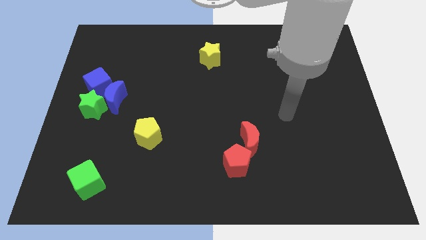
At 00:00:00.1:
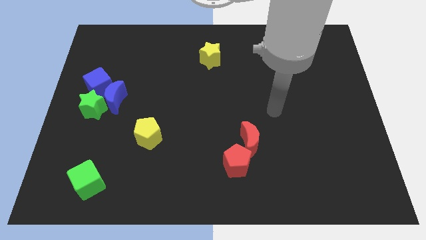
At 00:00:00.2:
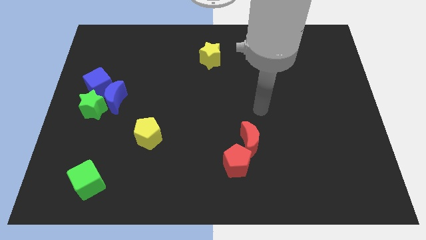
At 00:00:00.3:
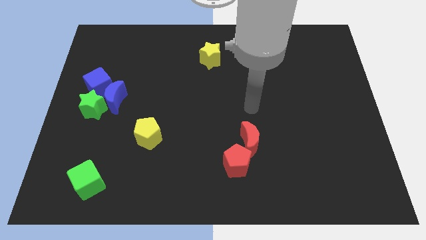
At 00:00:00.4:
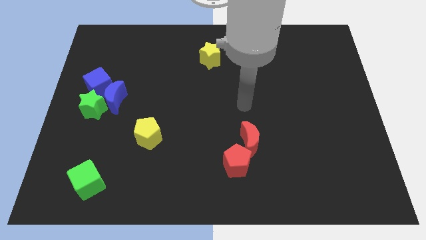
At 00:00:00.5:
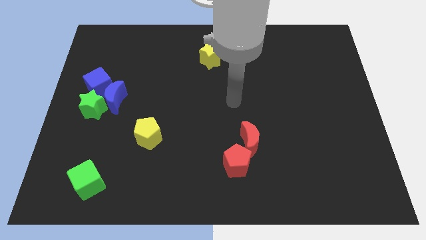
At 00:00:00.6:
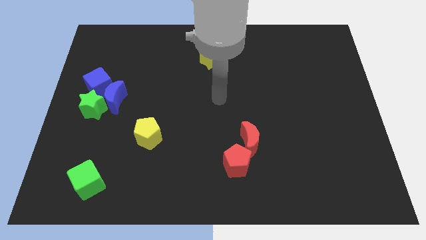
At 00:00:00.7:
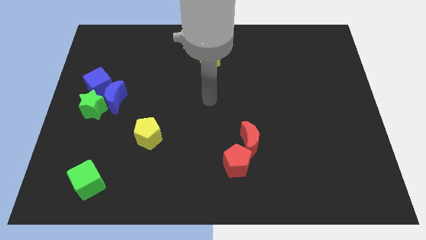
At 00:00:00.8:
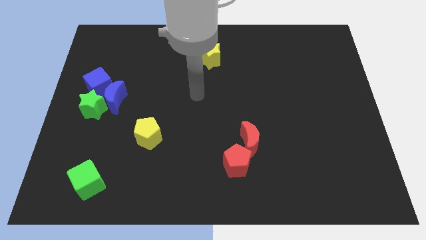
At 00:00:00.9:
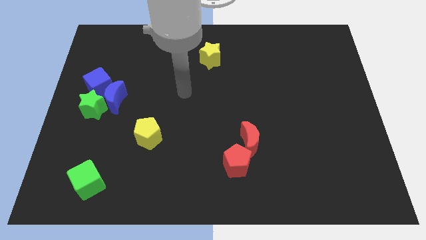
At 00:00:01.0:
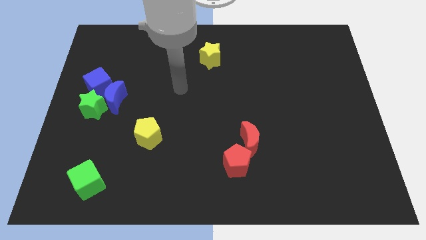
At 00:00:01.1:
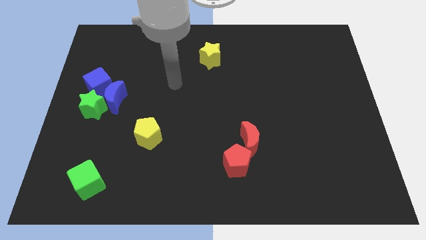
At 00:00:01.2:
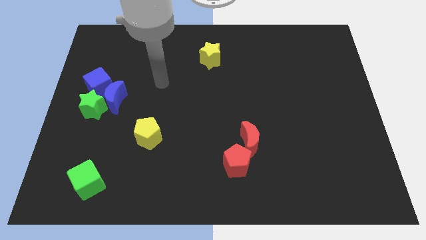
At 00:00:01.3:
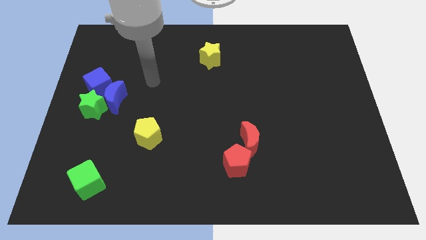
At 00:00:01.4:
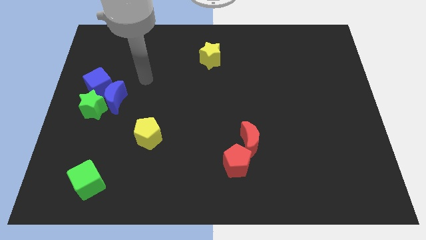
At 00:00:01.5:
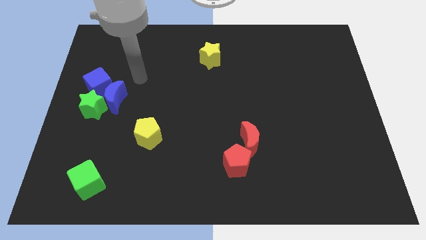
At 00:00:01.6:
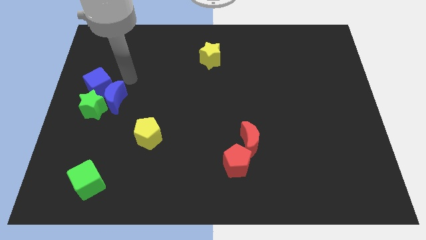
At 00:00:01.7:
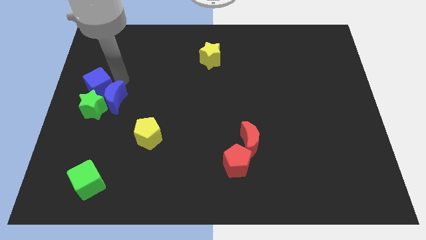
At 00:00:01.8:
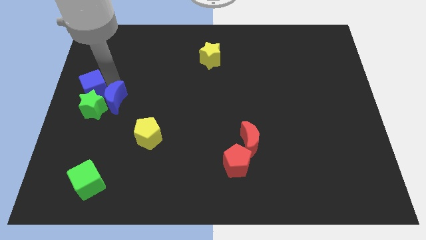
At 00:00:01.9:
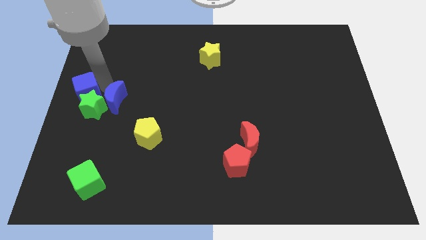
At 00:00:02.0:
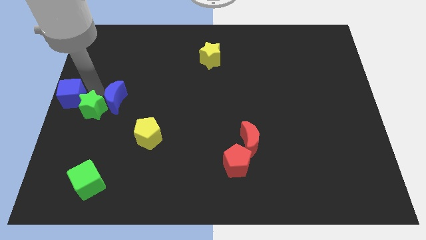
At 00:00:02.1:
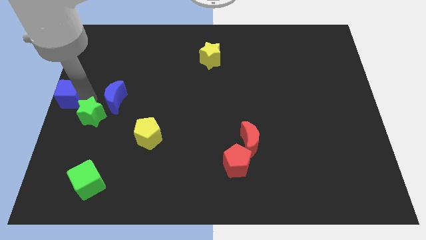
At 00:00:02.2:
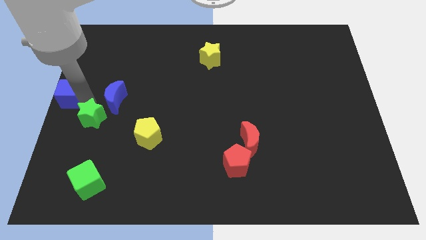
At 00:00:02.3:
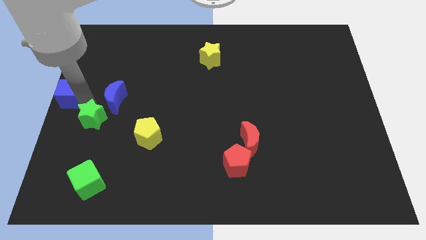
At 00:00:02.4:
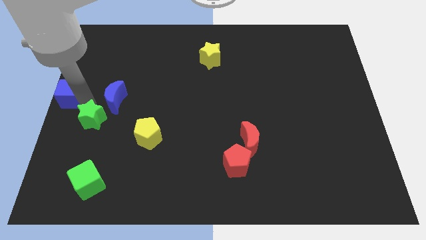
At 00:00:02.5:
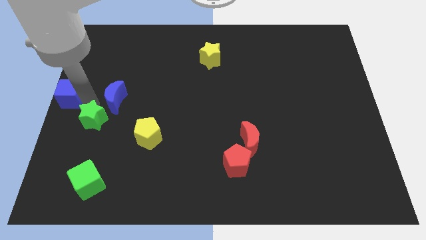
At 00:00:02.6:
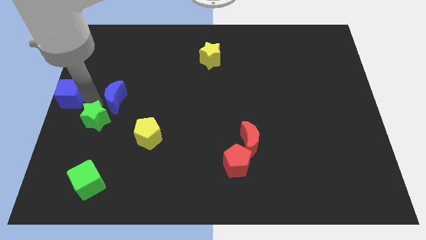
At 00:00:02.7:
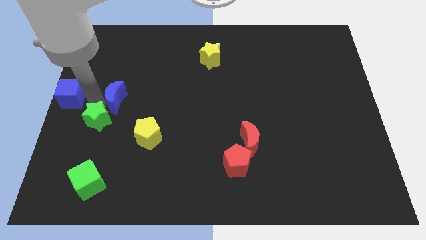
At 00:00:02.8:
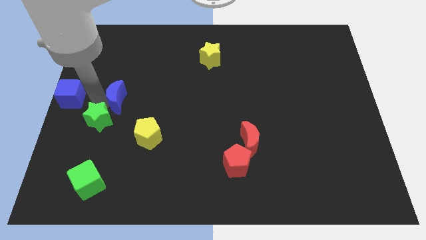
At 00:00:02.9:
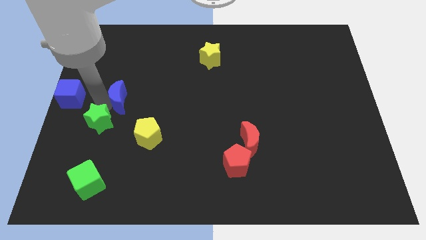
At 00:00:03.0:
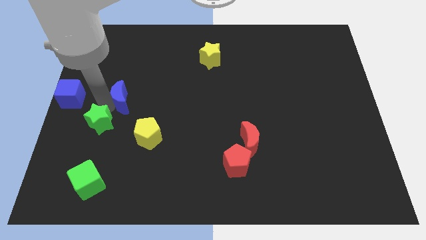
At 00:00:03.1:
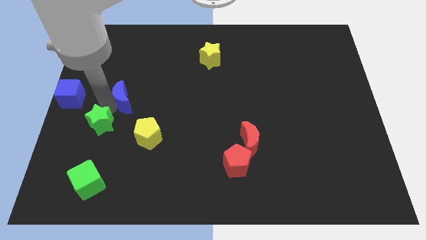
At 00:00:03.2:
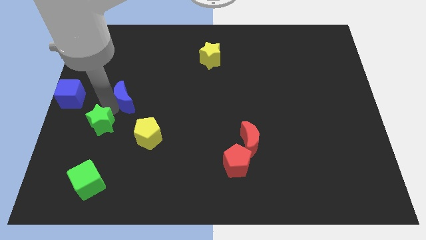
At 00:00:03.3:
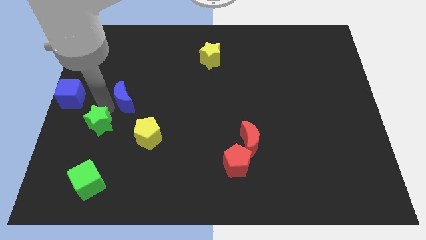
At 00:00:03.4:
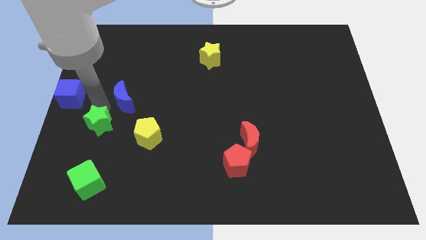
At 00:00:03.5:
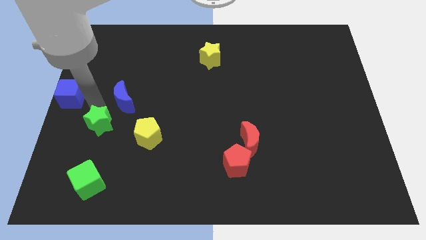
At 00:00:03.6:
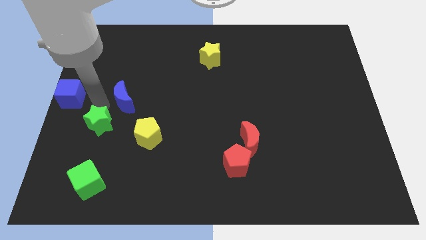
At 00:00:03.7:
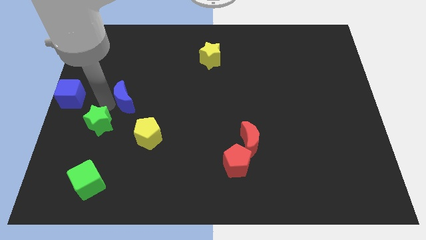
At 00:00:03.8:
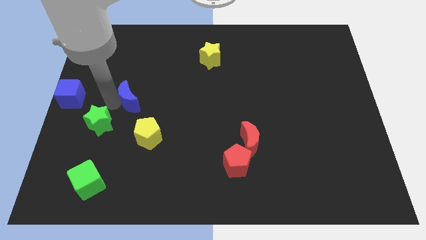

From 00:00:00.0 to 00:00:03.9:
move the blue moon away from the green star and blue cube

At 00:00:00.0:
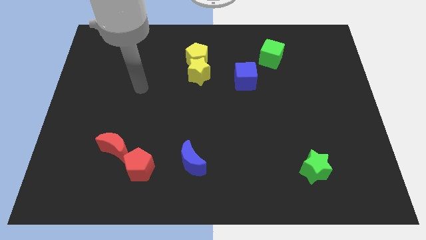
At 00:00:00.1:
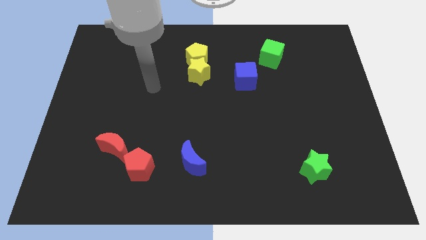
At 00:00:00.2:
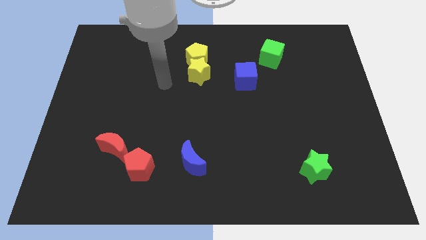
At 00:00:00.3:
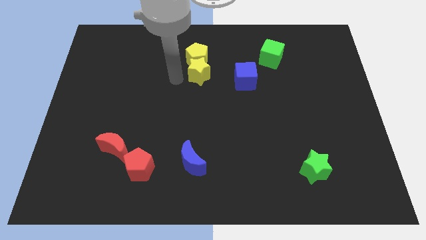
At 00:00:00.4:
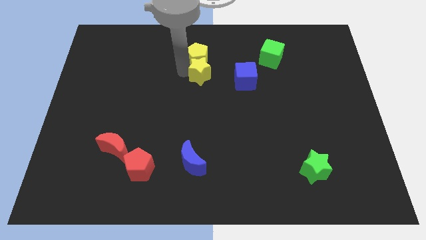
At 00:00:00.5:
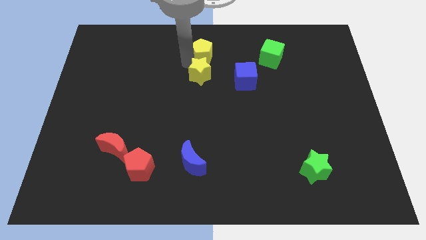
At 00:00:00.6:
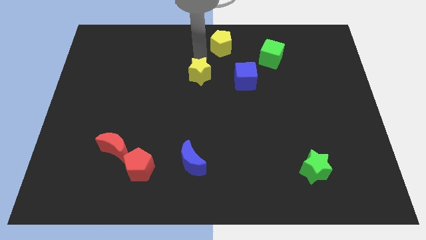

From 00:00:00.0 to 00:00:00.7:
separate the yellow star from the yellow pentagon

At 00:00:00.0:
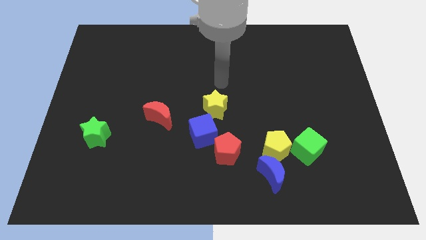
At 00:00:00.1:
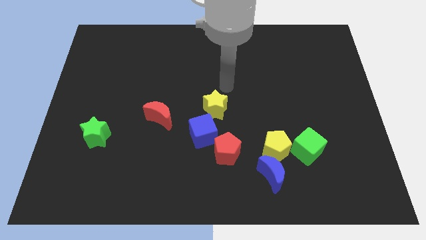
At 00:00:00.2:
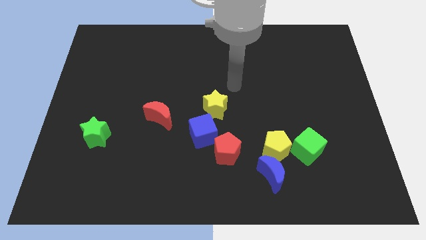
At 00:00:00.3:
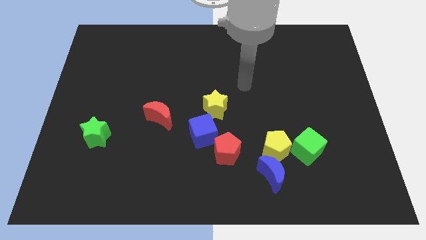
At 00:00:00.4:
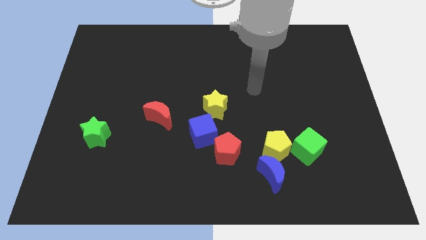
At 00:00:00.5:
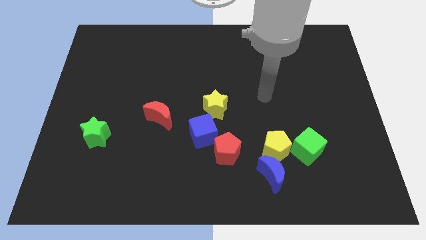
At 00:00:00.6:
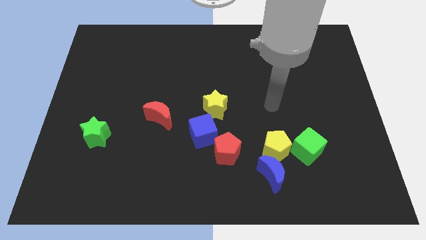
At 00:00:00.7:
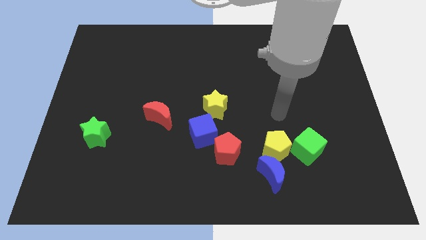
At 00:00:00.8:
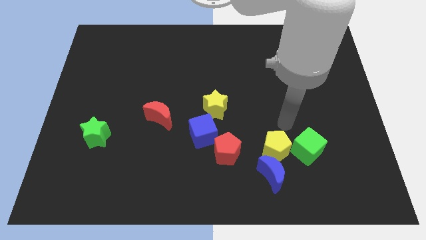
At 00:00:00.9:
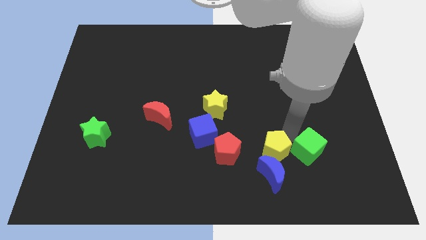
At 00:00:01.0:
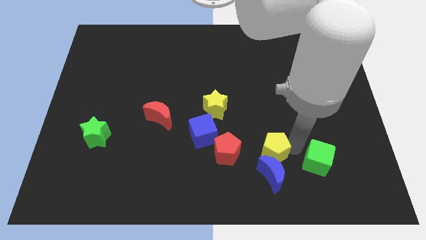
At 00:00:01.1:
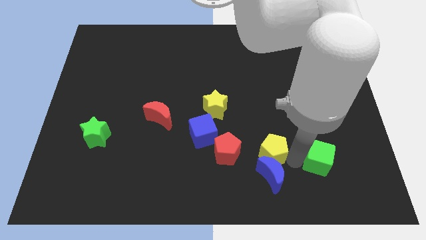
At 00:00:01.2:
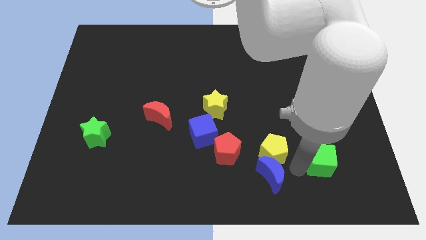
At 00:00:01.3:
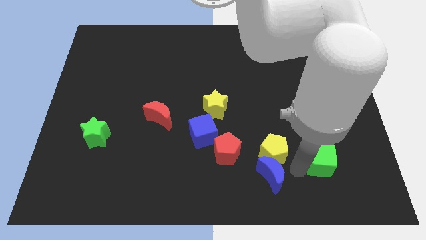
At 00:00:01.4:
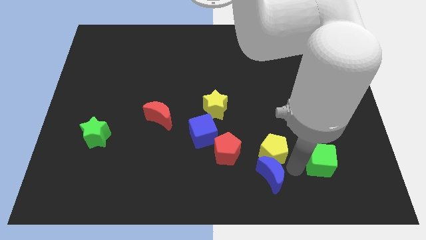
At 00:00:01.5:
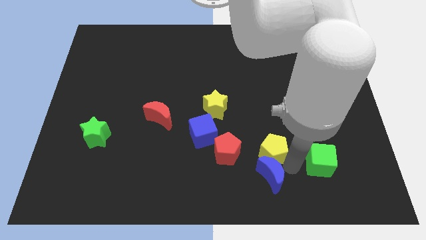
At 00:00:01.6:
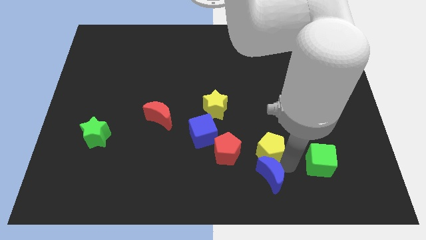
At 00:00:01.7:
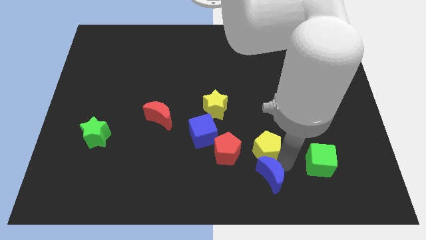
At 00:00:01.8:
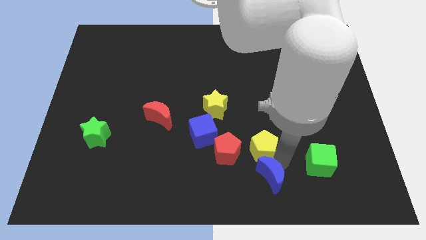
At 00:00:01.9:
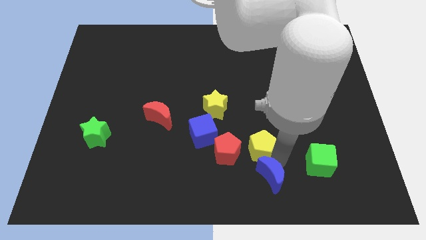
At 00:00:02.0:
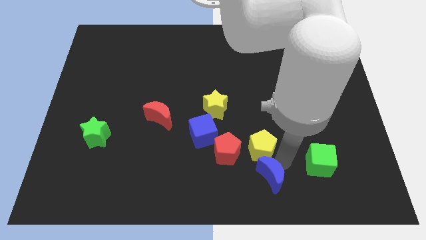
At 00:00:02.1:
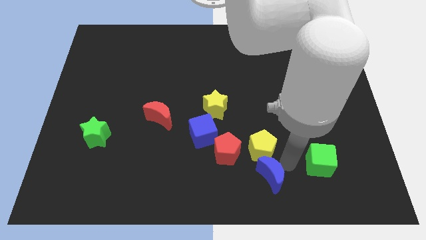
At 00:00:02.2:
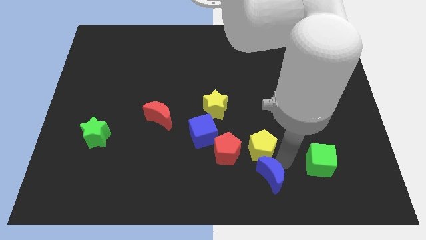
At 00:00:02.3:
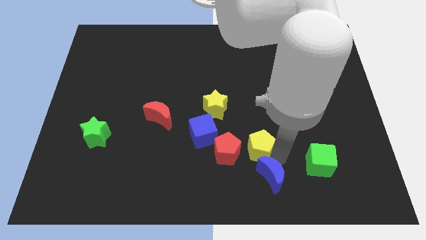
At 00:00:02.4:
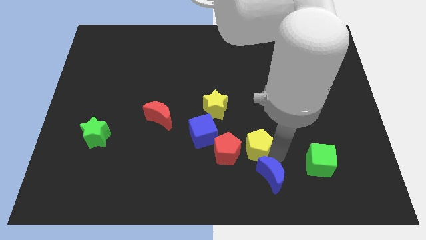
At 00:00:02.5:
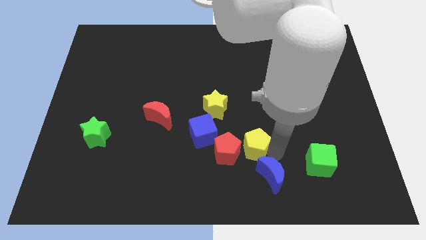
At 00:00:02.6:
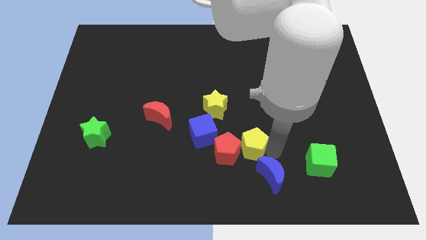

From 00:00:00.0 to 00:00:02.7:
move the yellow pentagon away from the blue moon and green cube

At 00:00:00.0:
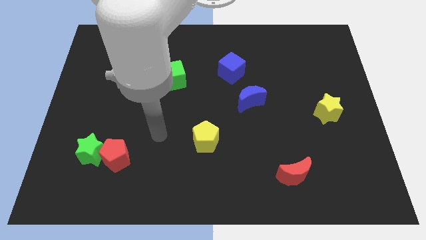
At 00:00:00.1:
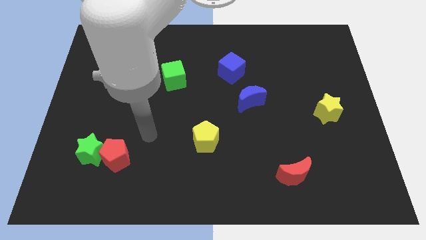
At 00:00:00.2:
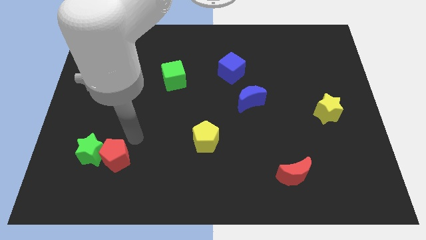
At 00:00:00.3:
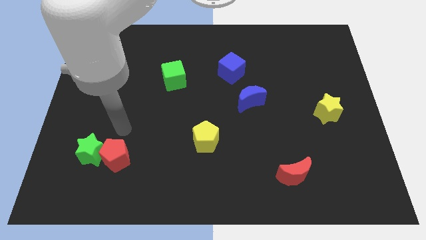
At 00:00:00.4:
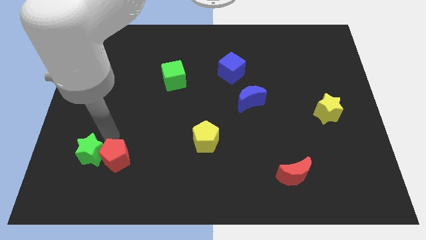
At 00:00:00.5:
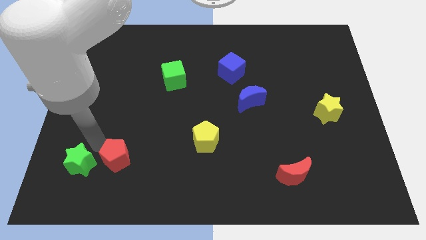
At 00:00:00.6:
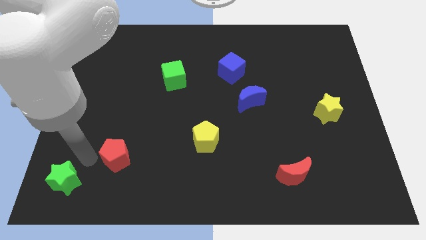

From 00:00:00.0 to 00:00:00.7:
separate the red pentagon from the green star

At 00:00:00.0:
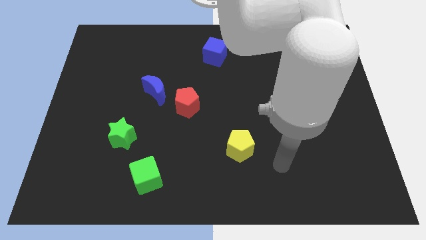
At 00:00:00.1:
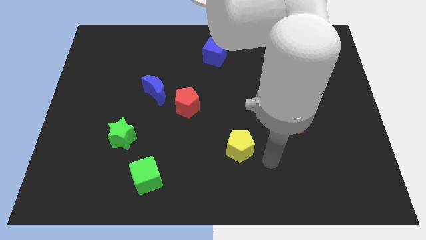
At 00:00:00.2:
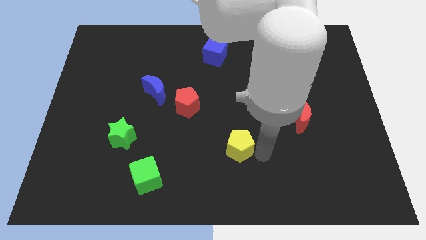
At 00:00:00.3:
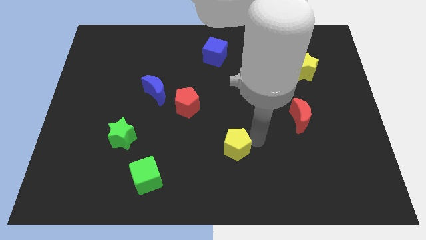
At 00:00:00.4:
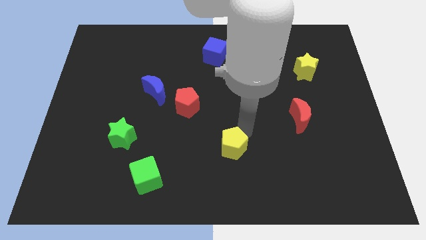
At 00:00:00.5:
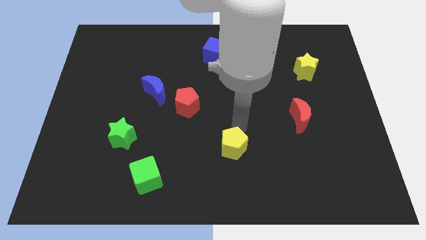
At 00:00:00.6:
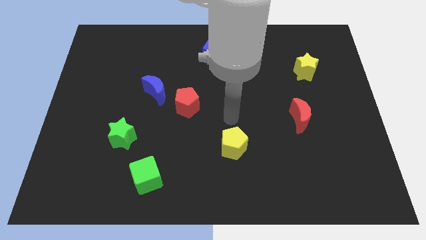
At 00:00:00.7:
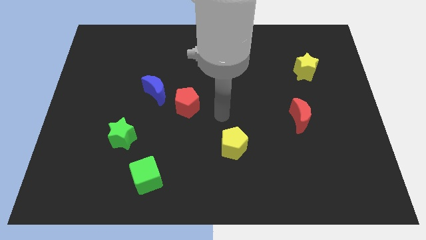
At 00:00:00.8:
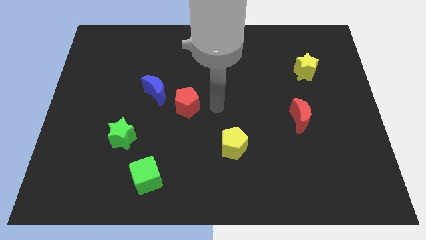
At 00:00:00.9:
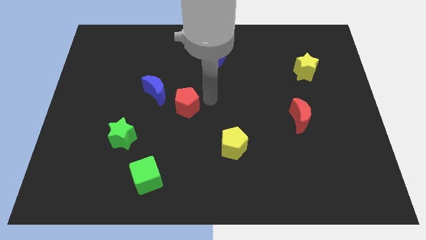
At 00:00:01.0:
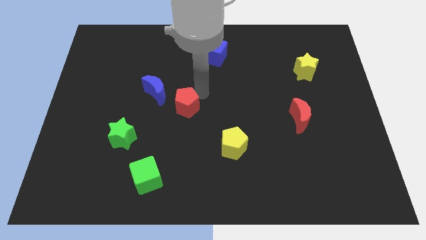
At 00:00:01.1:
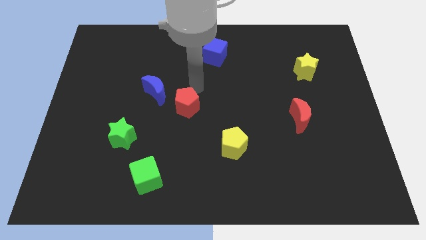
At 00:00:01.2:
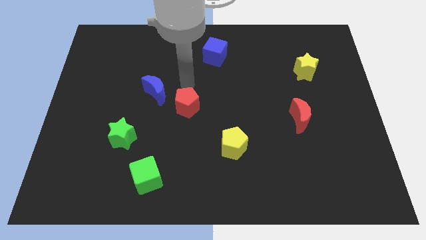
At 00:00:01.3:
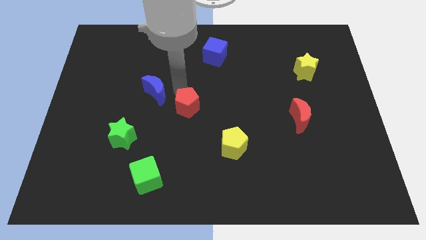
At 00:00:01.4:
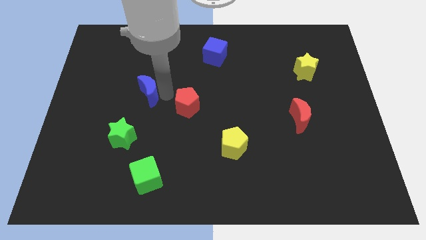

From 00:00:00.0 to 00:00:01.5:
move the red pentagon away from the blue moon
